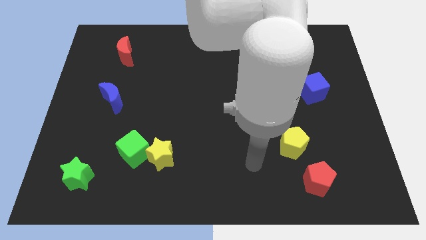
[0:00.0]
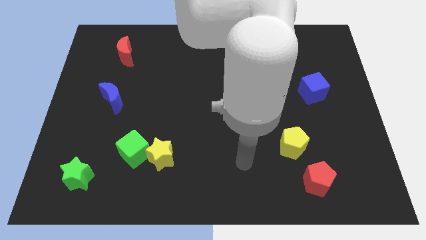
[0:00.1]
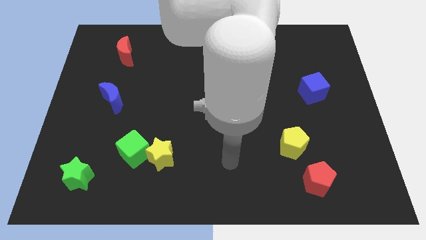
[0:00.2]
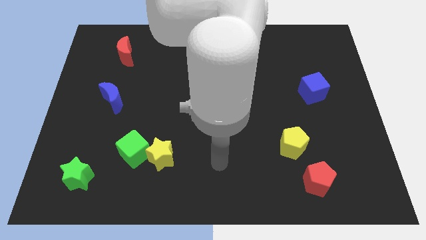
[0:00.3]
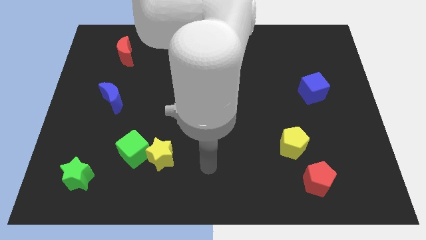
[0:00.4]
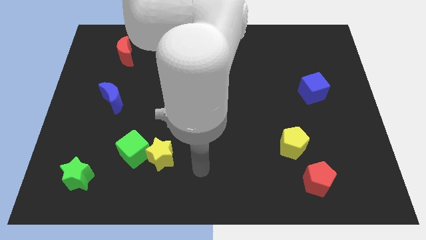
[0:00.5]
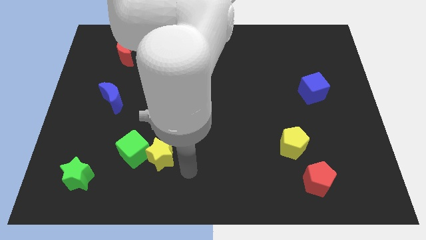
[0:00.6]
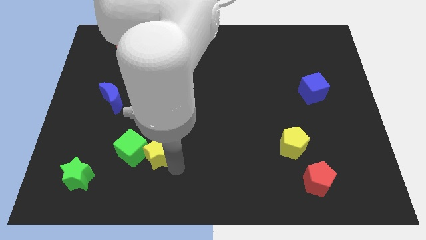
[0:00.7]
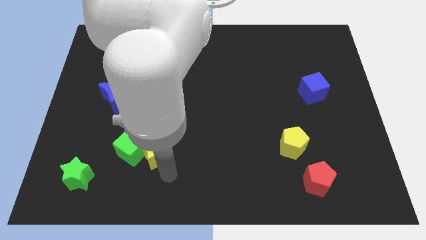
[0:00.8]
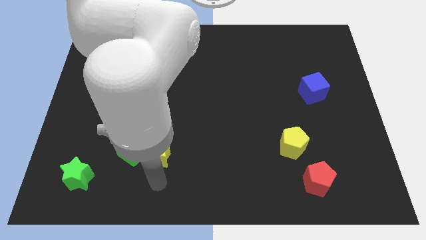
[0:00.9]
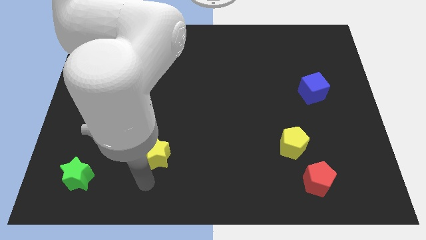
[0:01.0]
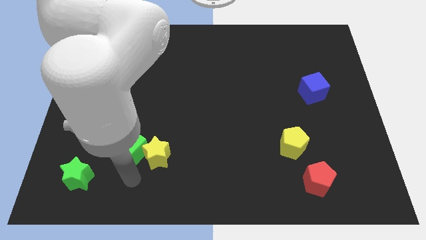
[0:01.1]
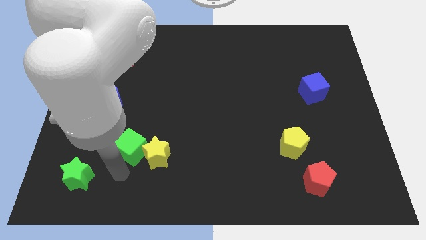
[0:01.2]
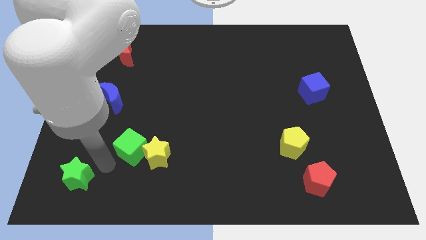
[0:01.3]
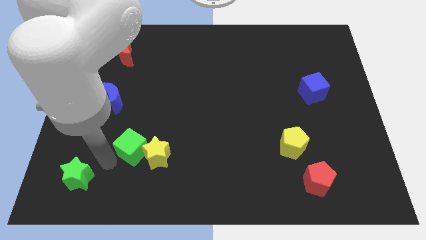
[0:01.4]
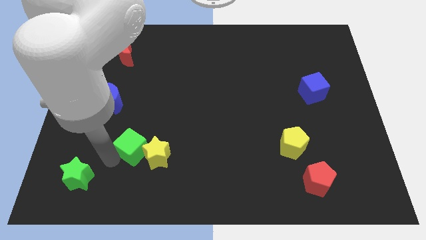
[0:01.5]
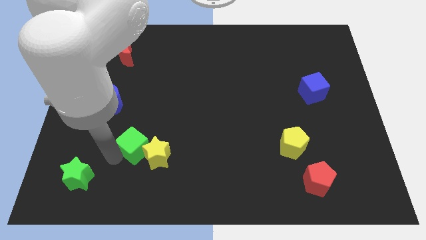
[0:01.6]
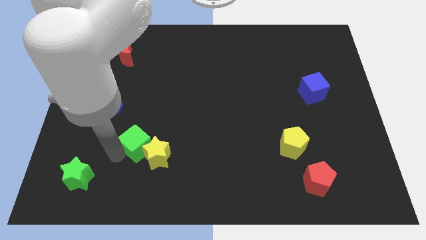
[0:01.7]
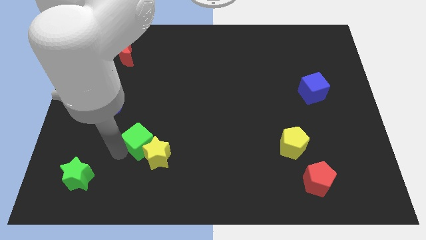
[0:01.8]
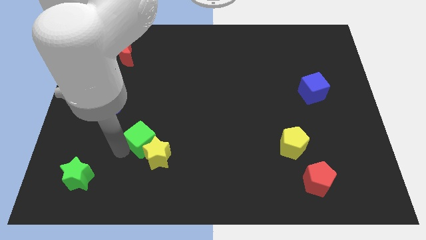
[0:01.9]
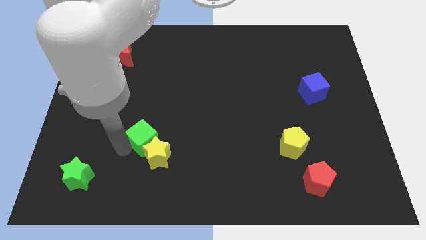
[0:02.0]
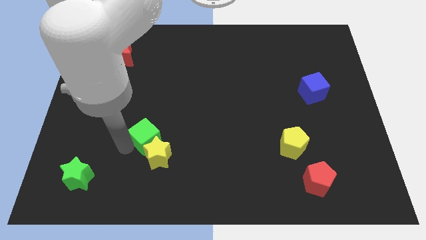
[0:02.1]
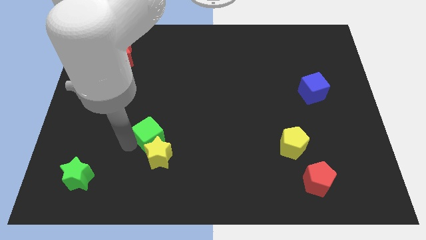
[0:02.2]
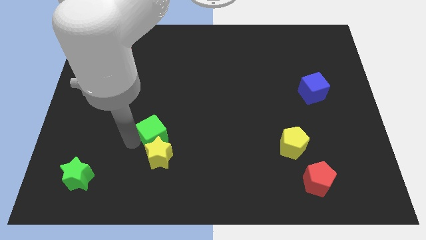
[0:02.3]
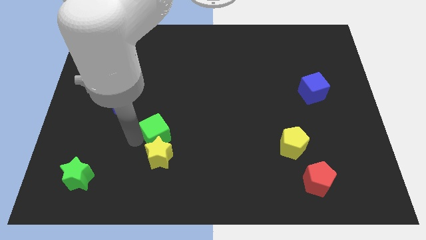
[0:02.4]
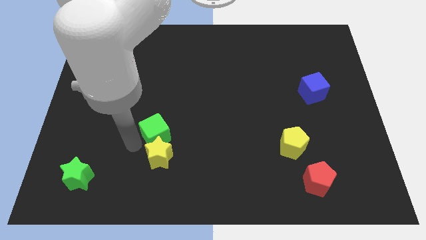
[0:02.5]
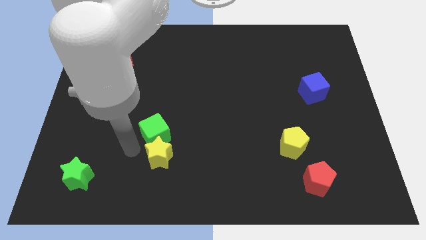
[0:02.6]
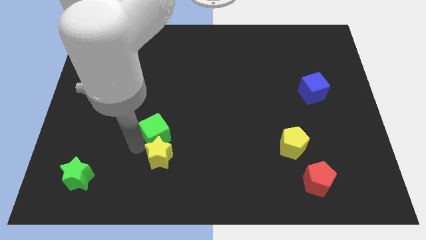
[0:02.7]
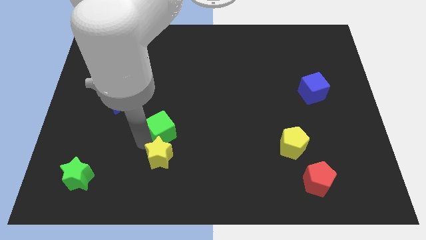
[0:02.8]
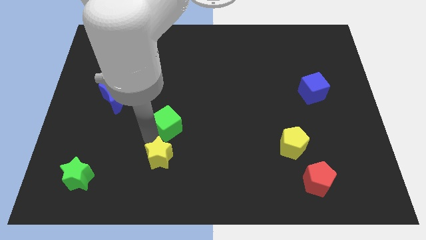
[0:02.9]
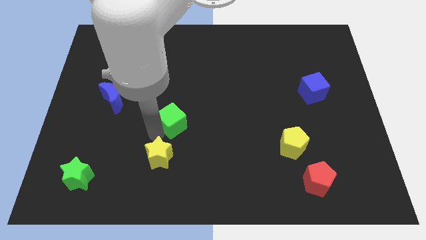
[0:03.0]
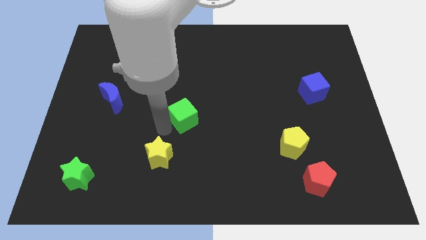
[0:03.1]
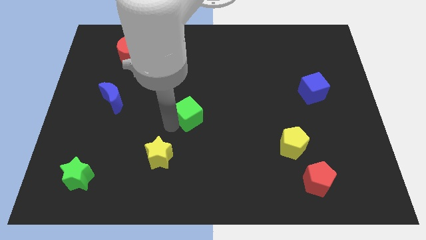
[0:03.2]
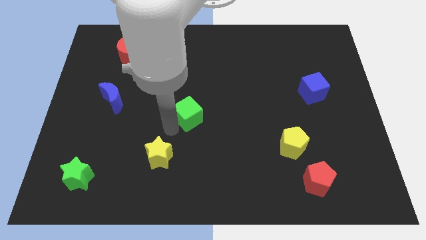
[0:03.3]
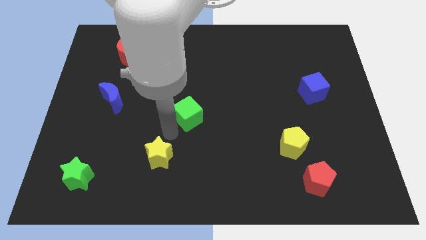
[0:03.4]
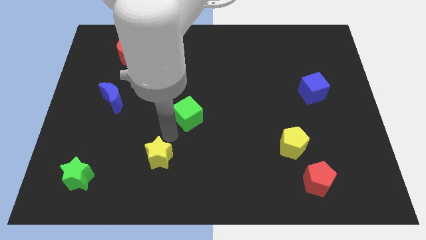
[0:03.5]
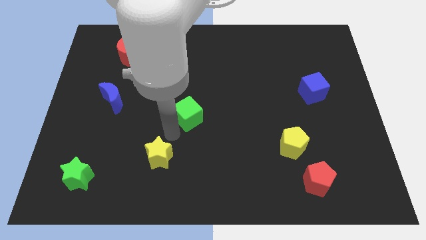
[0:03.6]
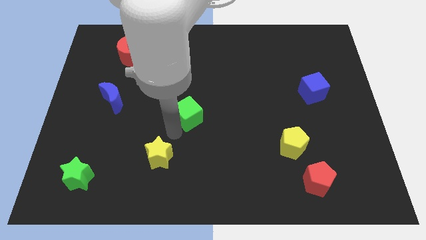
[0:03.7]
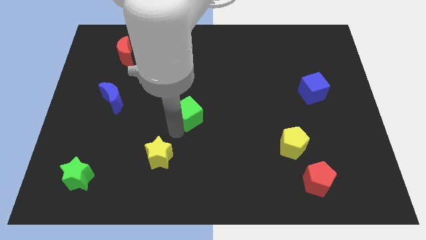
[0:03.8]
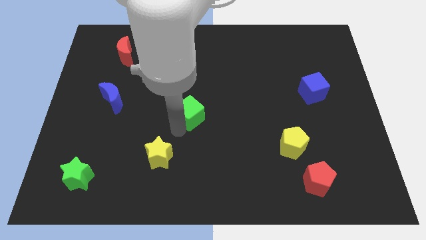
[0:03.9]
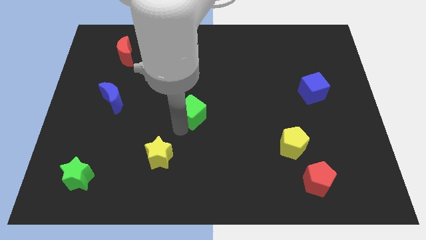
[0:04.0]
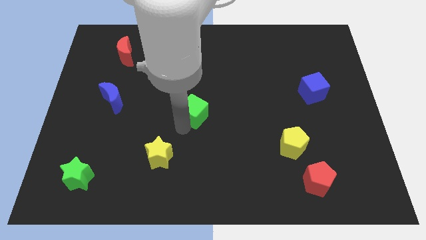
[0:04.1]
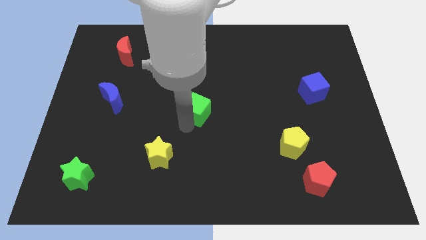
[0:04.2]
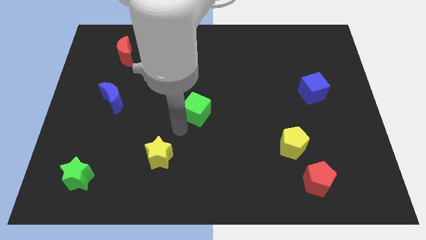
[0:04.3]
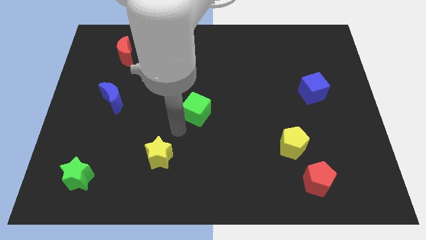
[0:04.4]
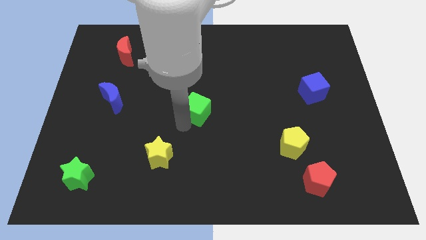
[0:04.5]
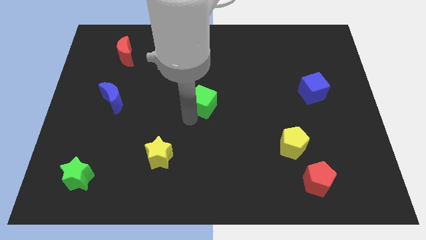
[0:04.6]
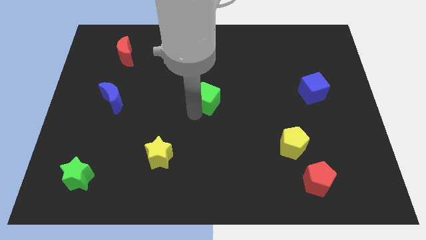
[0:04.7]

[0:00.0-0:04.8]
move the green cube diagonally upwards and to the right

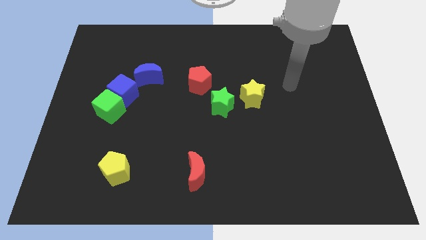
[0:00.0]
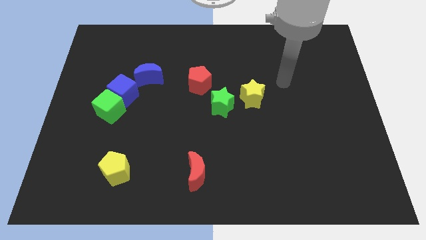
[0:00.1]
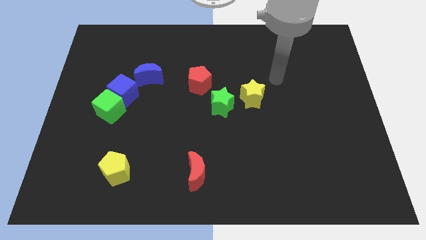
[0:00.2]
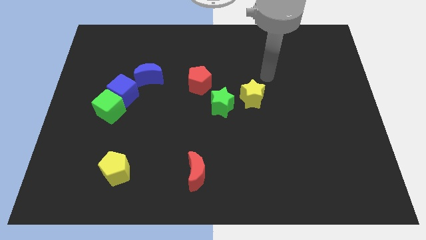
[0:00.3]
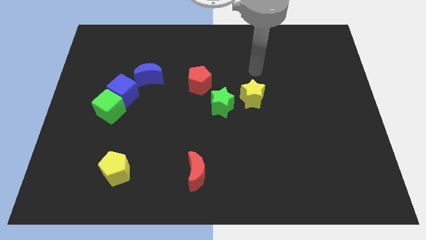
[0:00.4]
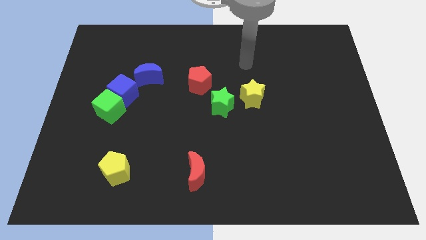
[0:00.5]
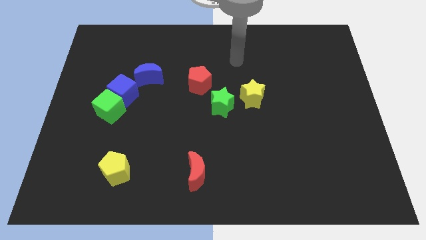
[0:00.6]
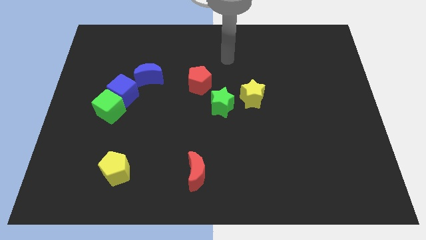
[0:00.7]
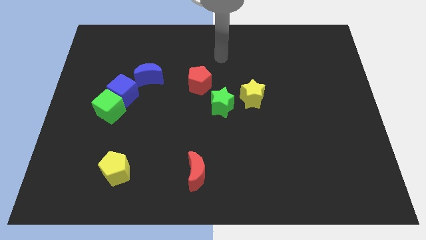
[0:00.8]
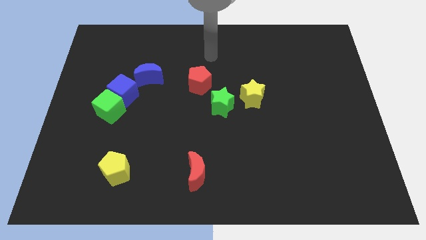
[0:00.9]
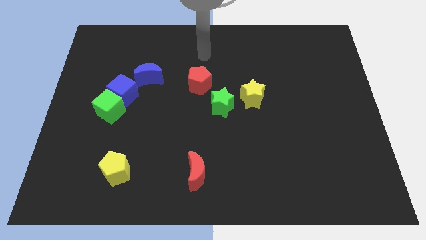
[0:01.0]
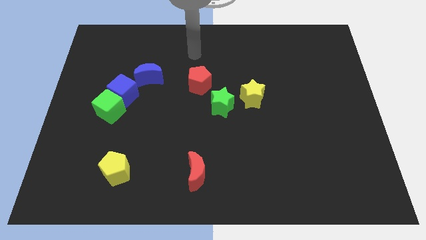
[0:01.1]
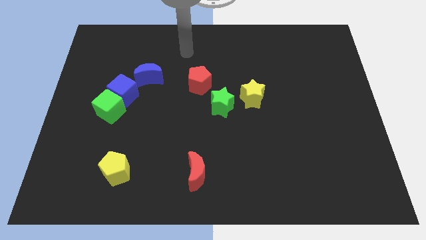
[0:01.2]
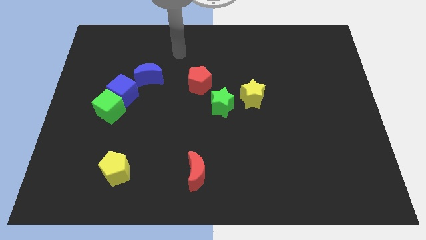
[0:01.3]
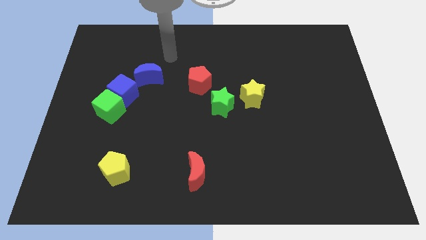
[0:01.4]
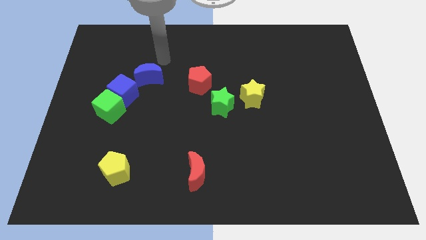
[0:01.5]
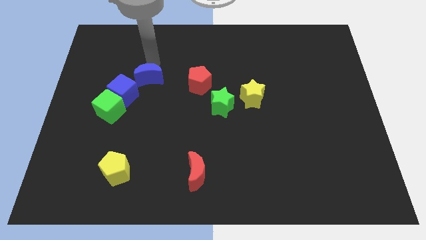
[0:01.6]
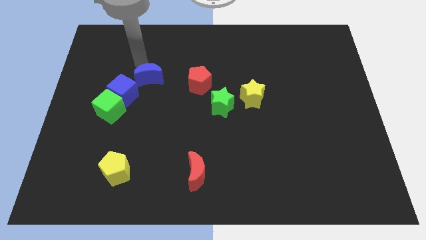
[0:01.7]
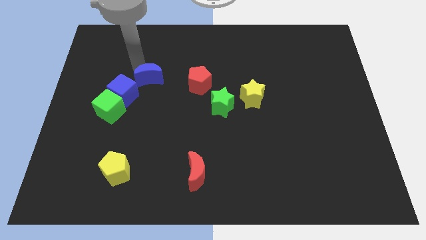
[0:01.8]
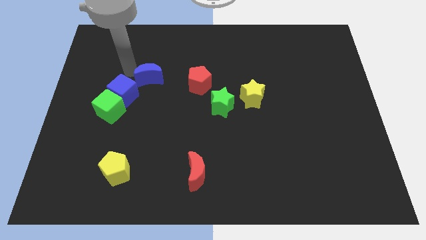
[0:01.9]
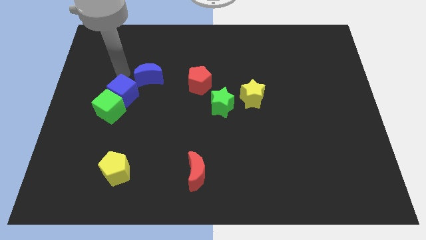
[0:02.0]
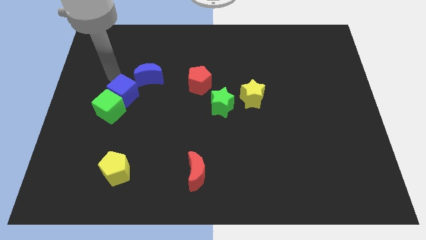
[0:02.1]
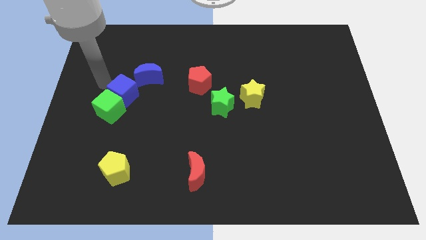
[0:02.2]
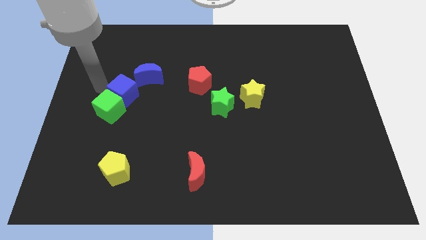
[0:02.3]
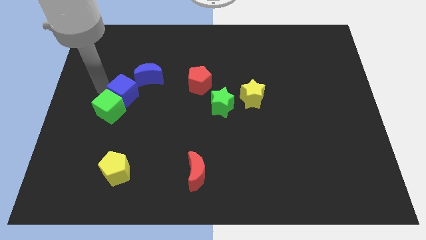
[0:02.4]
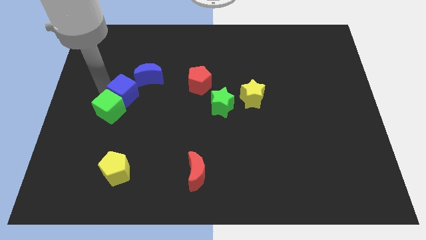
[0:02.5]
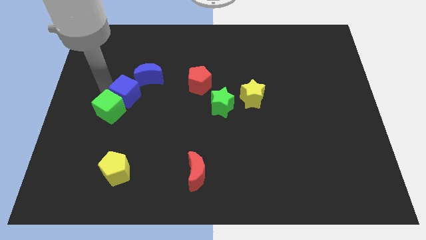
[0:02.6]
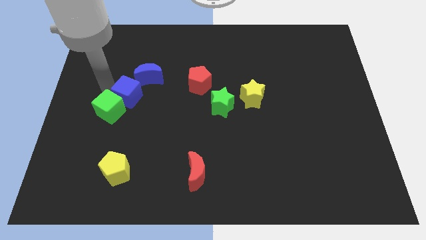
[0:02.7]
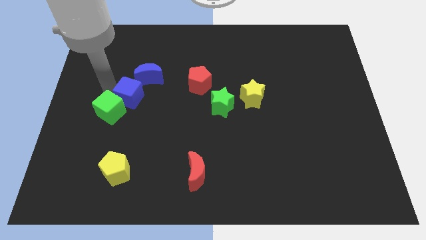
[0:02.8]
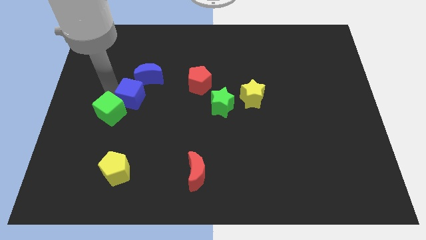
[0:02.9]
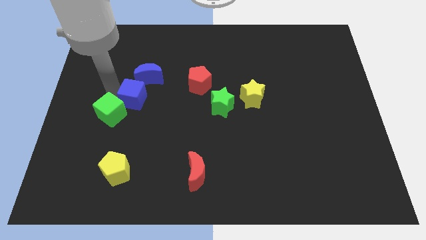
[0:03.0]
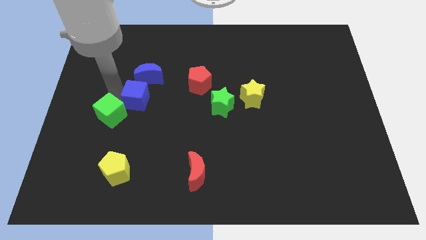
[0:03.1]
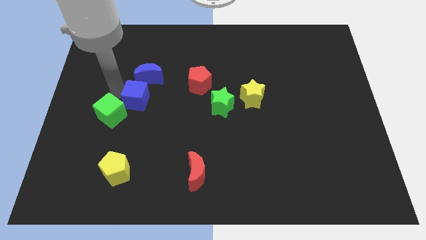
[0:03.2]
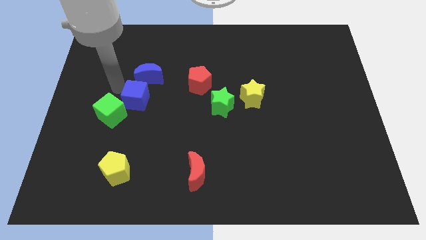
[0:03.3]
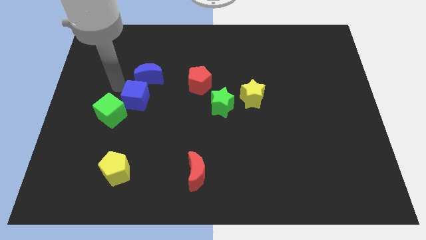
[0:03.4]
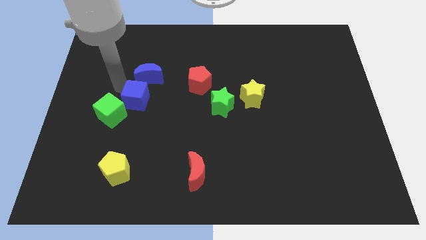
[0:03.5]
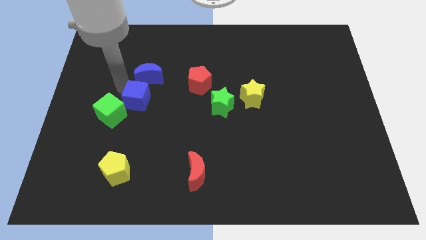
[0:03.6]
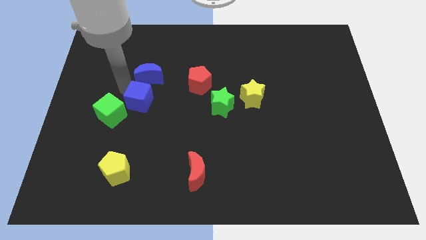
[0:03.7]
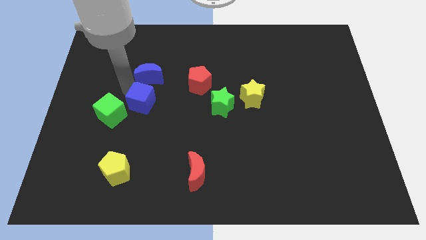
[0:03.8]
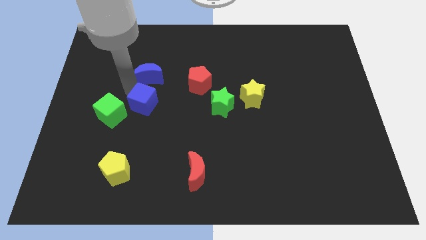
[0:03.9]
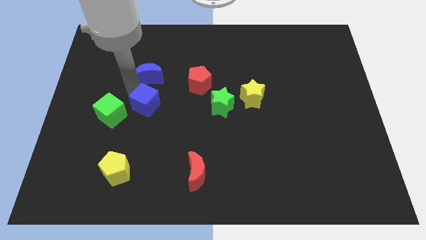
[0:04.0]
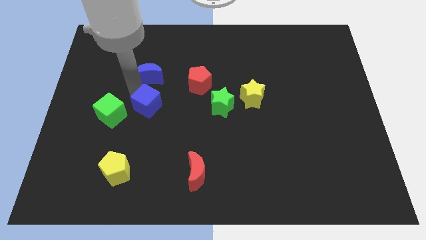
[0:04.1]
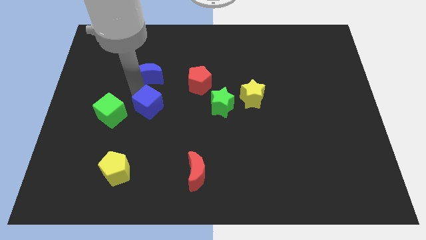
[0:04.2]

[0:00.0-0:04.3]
slide the blue cube a little diagonally downwards and to the right
